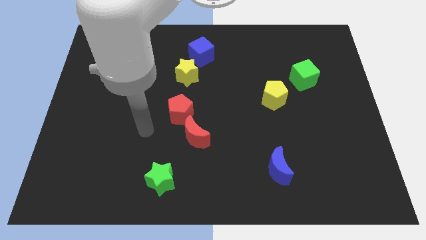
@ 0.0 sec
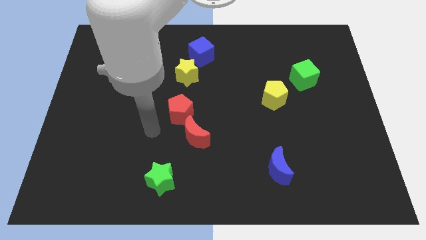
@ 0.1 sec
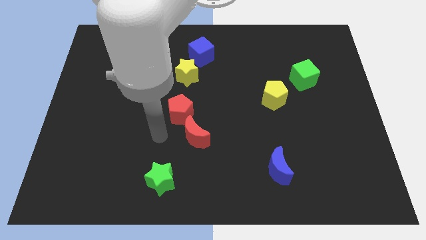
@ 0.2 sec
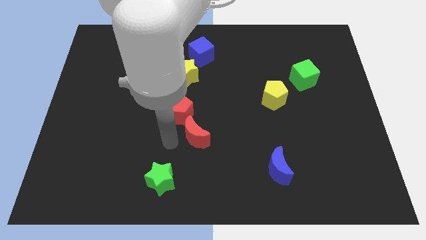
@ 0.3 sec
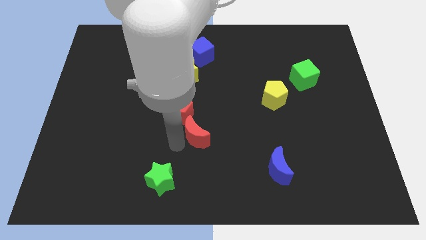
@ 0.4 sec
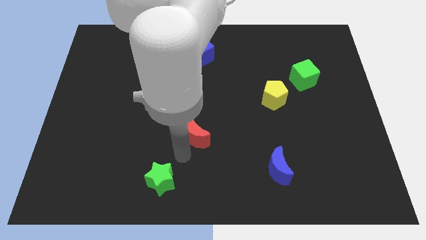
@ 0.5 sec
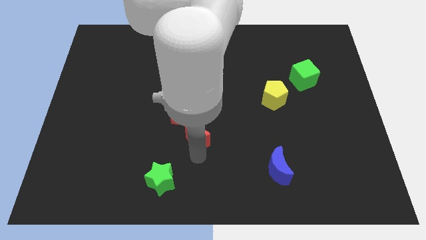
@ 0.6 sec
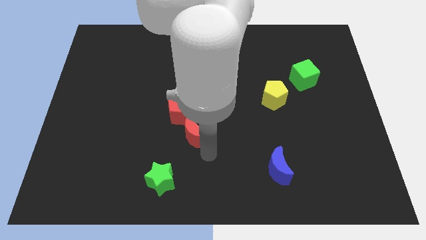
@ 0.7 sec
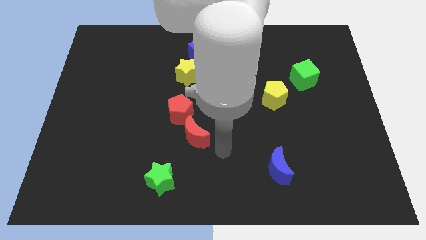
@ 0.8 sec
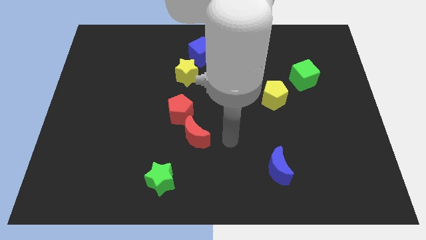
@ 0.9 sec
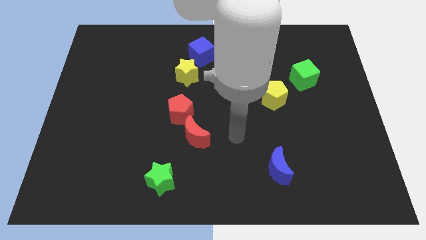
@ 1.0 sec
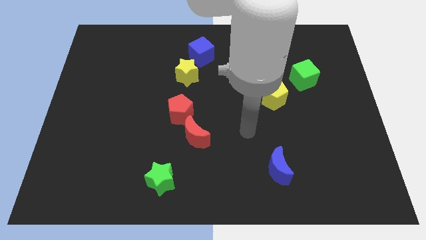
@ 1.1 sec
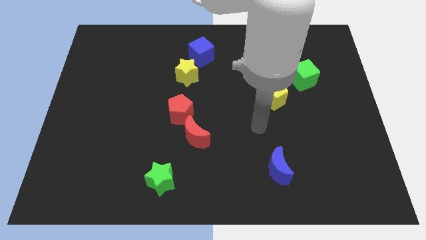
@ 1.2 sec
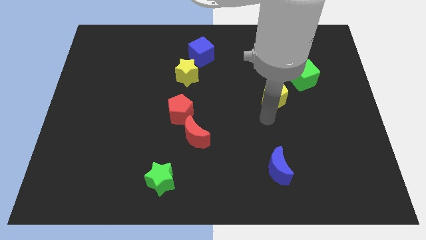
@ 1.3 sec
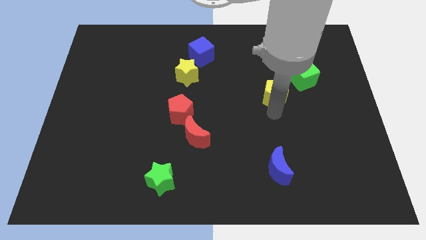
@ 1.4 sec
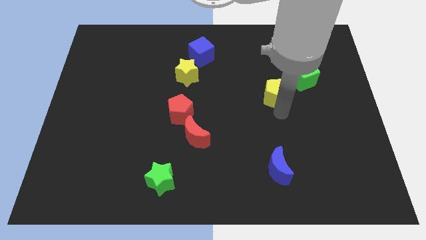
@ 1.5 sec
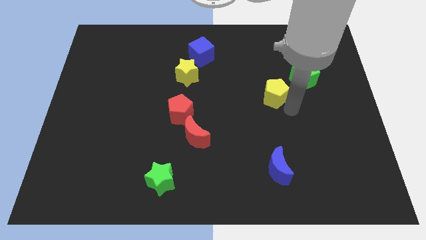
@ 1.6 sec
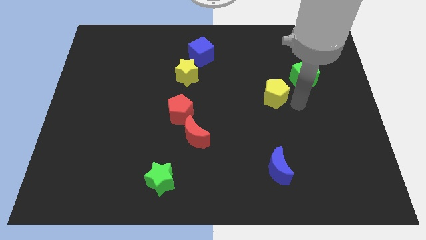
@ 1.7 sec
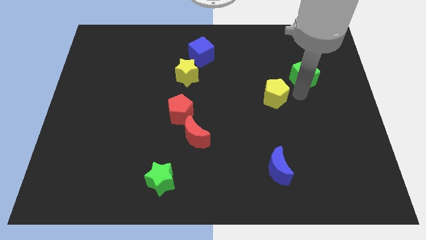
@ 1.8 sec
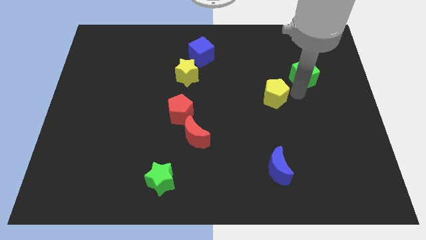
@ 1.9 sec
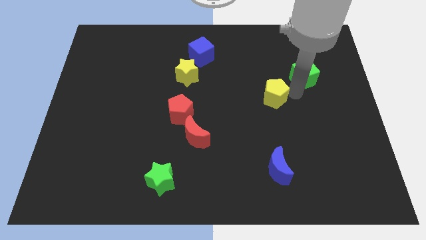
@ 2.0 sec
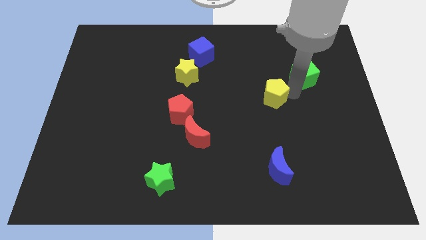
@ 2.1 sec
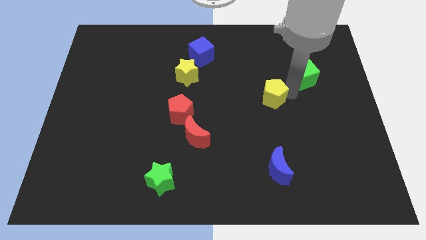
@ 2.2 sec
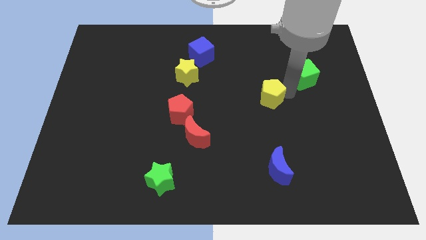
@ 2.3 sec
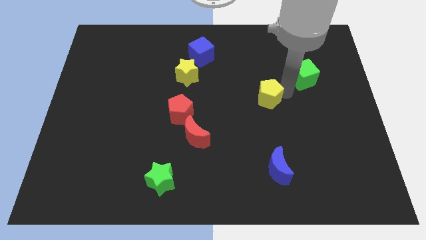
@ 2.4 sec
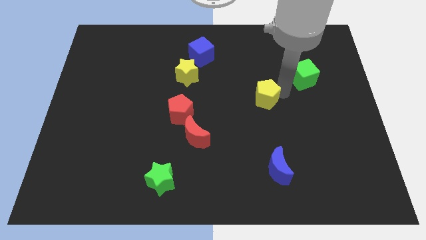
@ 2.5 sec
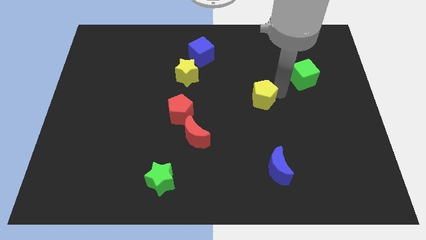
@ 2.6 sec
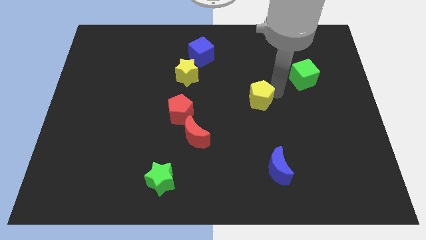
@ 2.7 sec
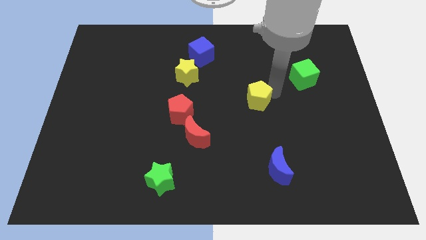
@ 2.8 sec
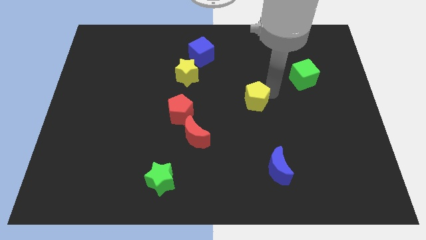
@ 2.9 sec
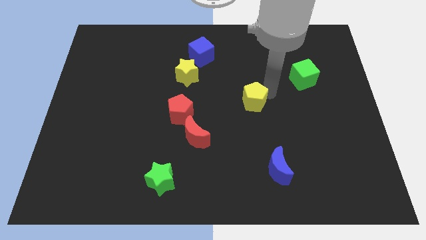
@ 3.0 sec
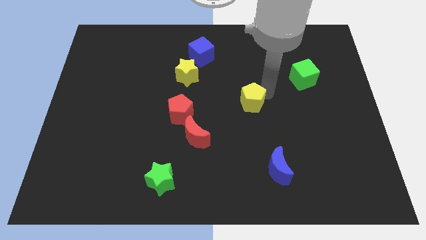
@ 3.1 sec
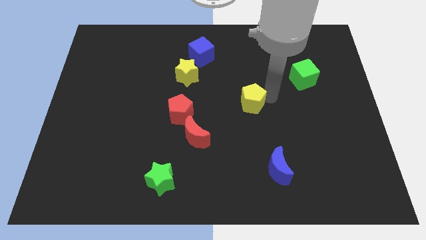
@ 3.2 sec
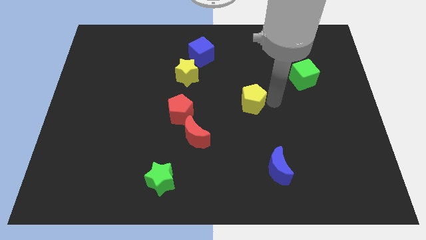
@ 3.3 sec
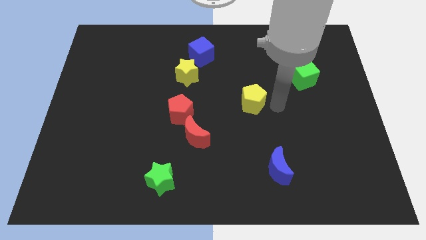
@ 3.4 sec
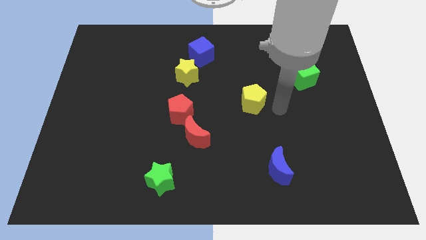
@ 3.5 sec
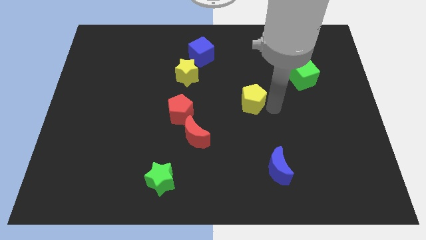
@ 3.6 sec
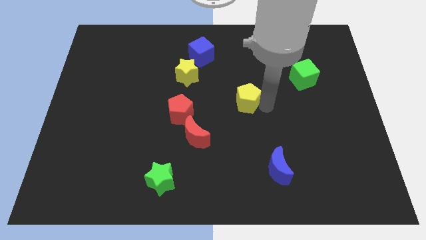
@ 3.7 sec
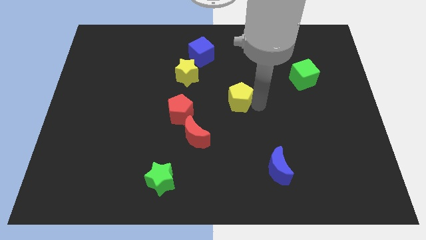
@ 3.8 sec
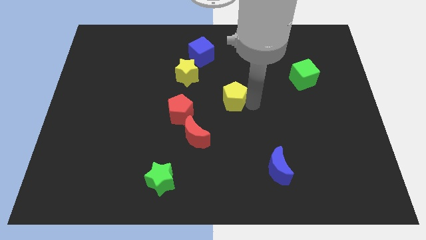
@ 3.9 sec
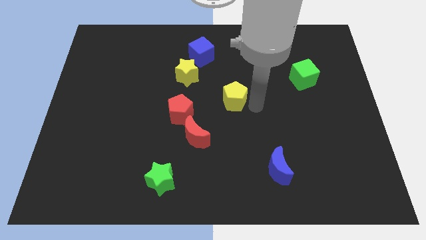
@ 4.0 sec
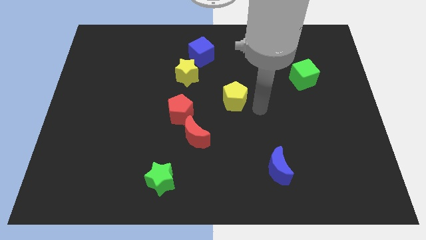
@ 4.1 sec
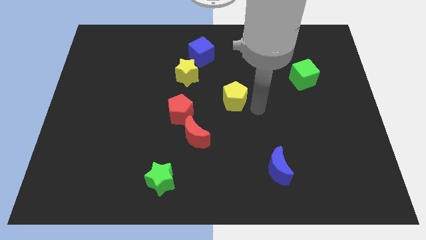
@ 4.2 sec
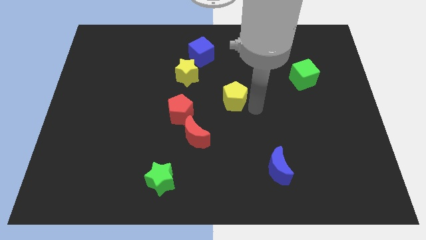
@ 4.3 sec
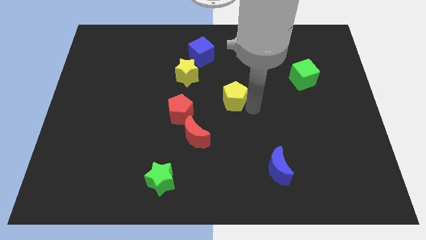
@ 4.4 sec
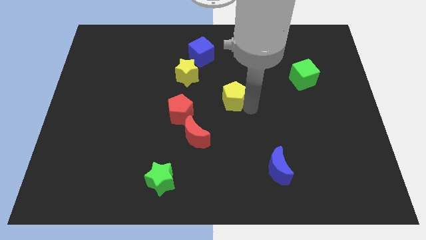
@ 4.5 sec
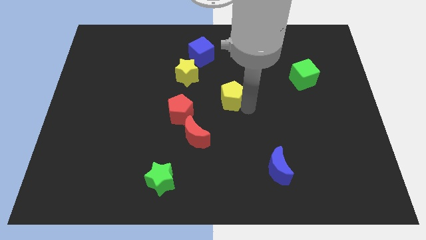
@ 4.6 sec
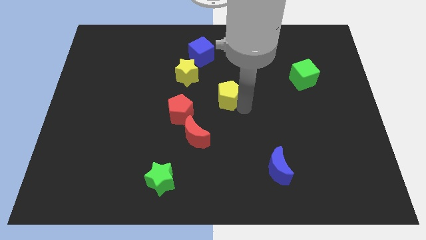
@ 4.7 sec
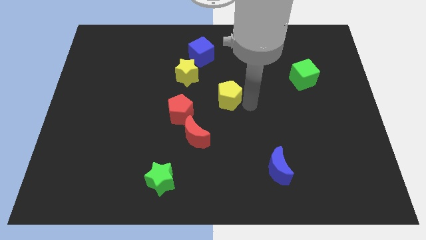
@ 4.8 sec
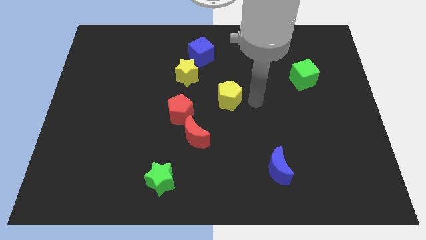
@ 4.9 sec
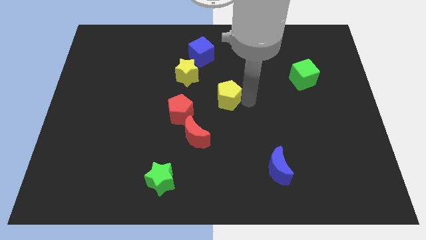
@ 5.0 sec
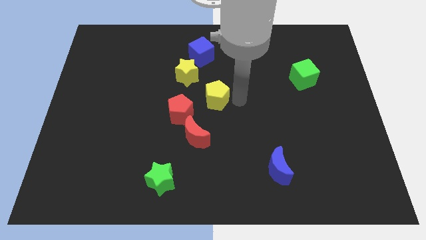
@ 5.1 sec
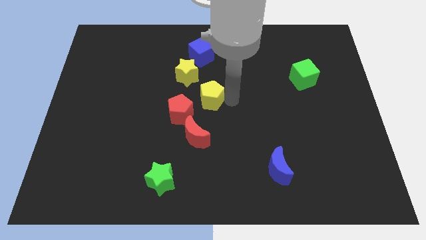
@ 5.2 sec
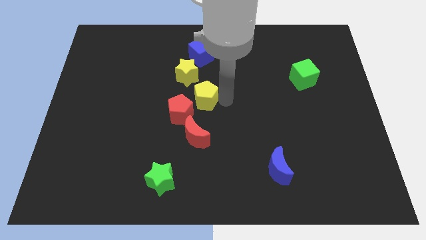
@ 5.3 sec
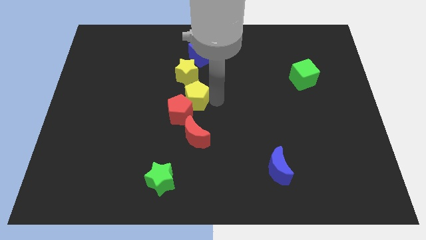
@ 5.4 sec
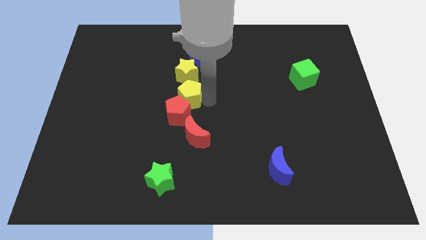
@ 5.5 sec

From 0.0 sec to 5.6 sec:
push the yellow pentagon left

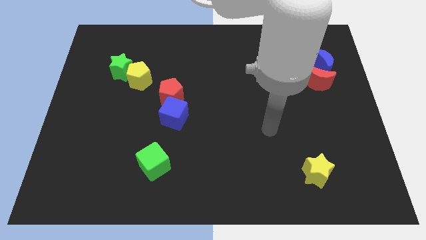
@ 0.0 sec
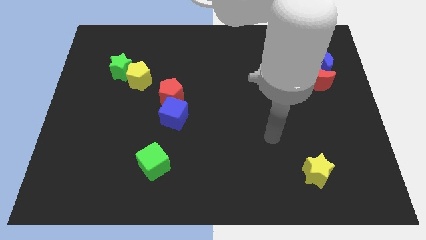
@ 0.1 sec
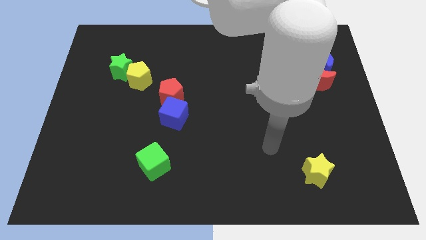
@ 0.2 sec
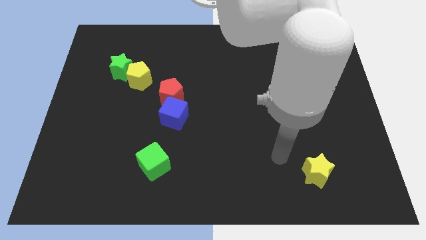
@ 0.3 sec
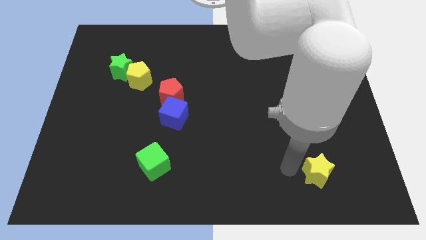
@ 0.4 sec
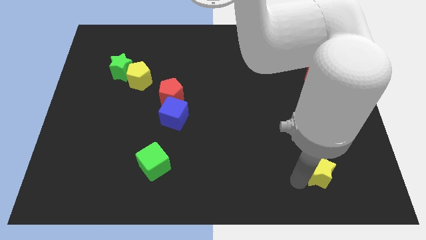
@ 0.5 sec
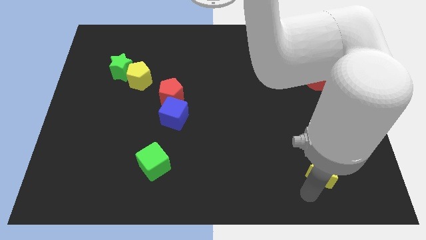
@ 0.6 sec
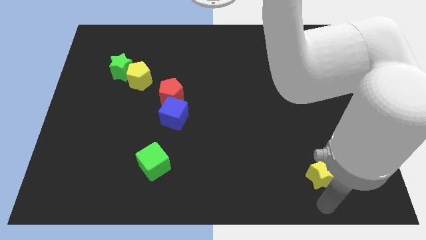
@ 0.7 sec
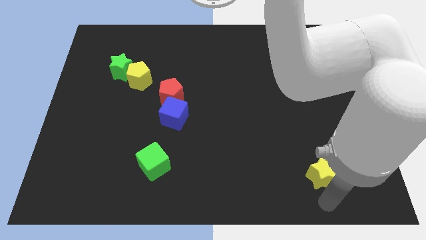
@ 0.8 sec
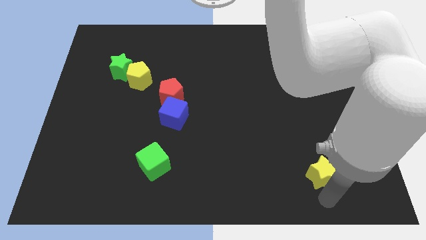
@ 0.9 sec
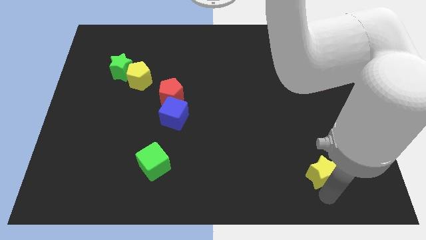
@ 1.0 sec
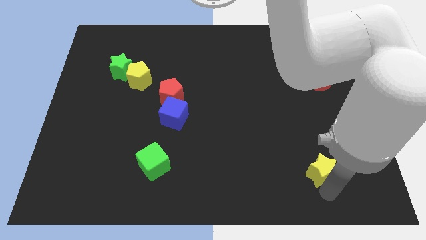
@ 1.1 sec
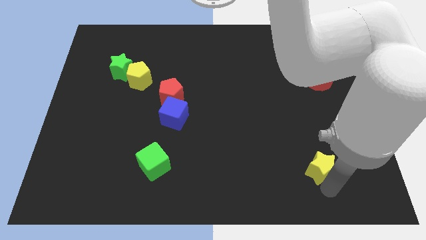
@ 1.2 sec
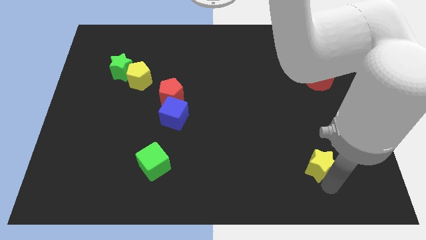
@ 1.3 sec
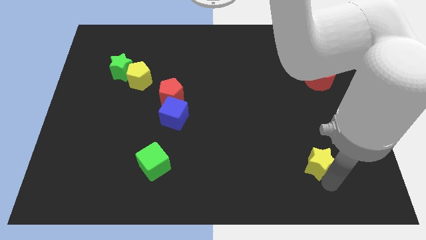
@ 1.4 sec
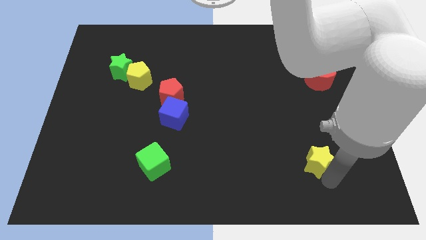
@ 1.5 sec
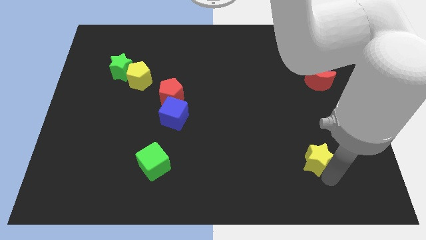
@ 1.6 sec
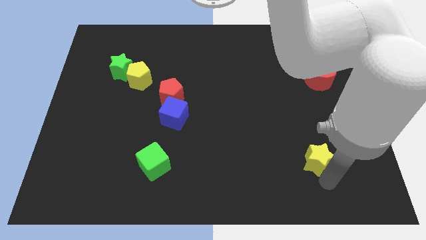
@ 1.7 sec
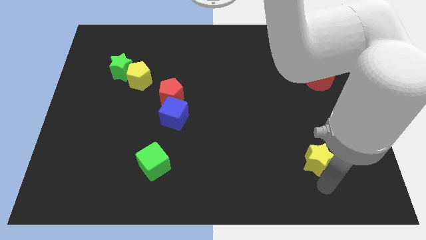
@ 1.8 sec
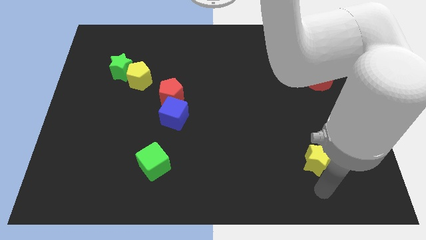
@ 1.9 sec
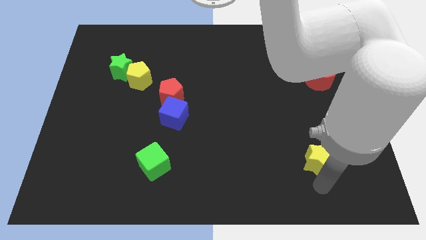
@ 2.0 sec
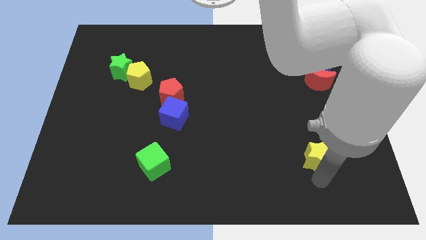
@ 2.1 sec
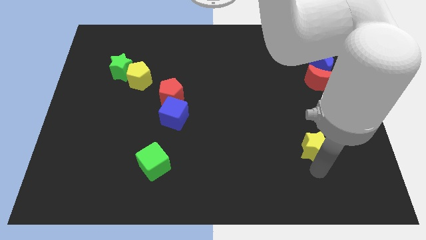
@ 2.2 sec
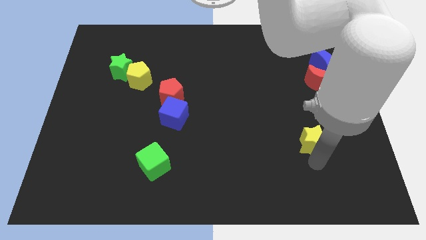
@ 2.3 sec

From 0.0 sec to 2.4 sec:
slightly slide the yellow star upwards
